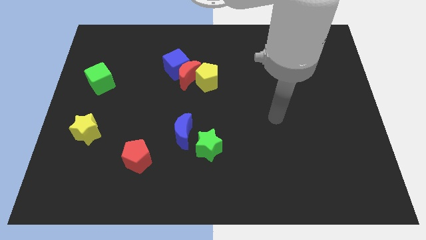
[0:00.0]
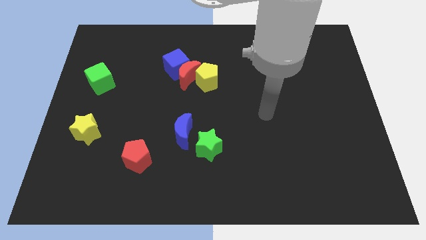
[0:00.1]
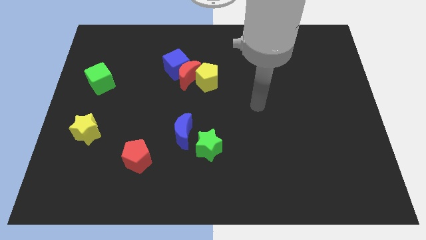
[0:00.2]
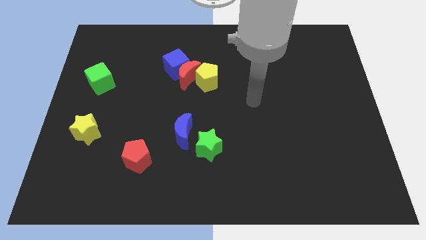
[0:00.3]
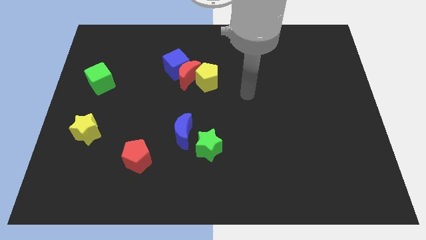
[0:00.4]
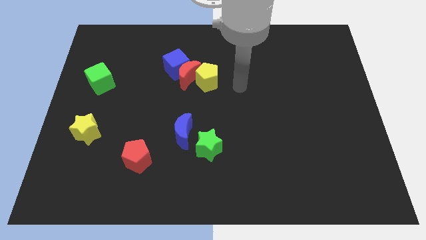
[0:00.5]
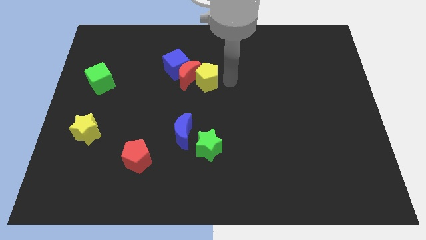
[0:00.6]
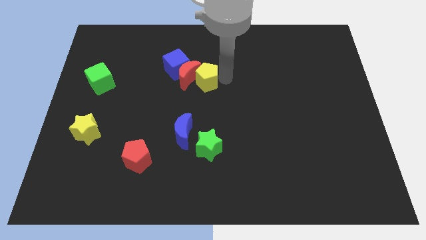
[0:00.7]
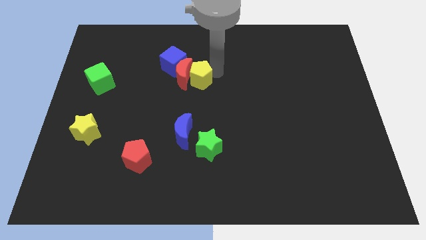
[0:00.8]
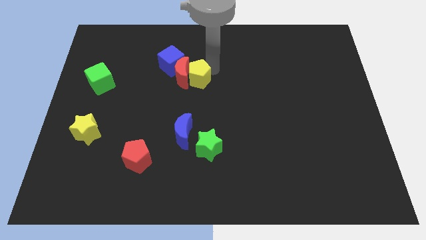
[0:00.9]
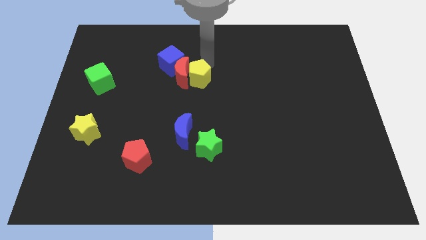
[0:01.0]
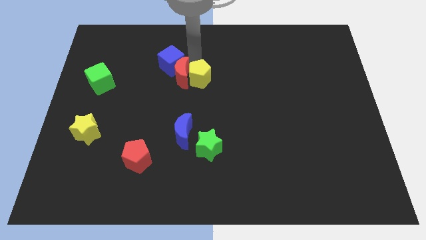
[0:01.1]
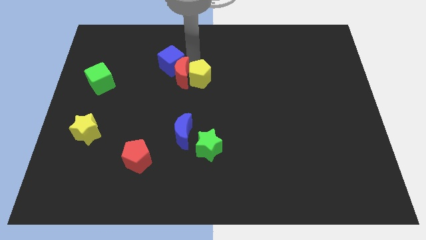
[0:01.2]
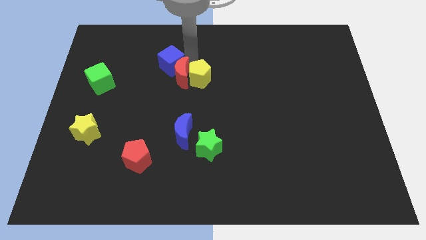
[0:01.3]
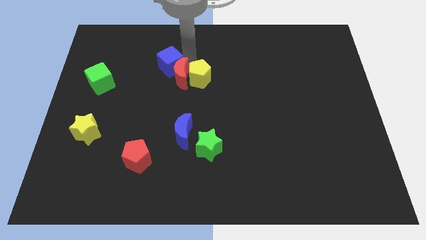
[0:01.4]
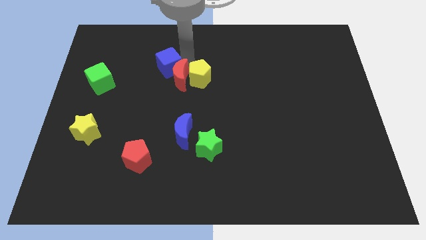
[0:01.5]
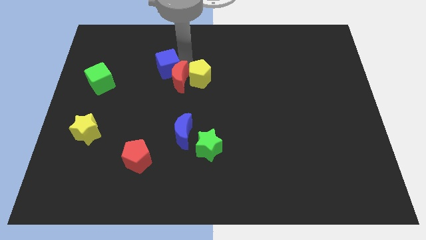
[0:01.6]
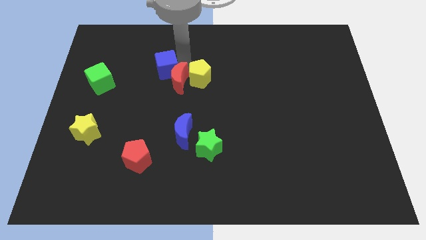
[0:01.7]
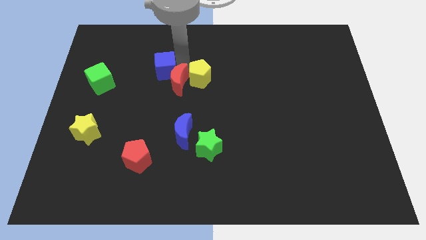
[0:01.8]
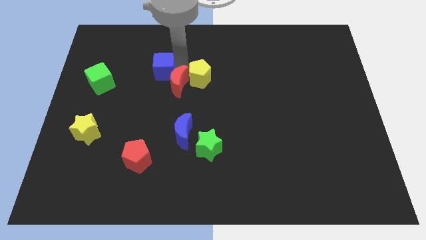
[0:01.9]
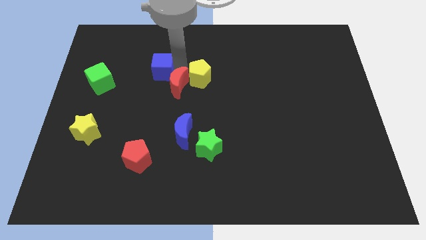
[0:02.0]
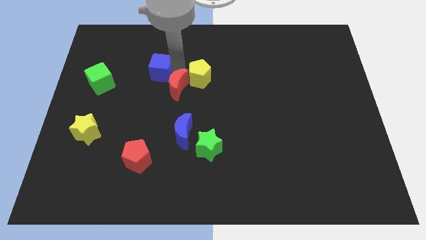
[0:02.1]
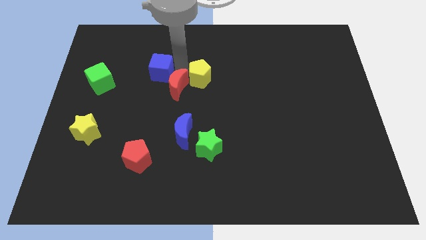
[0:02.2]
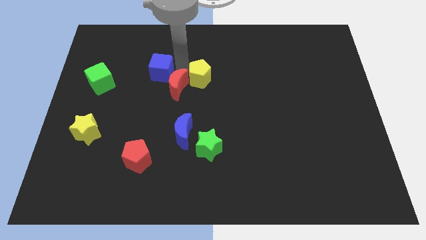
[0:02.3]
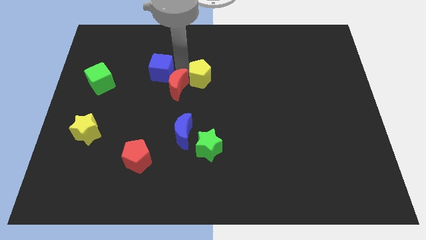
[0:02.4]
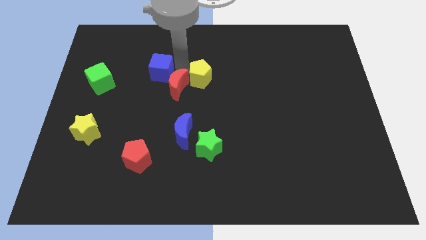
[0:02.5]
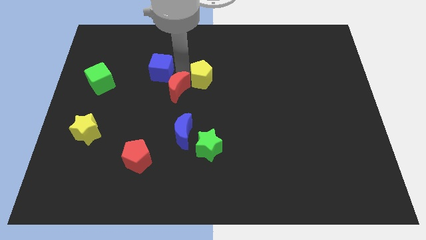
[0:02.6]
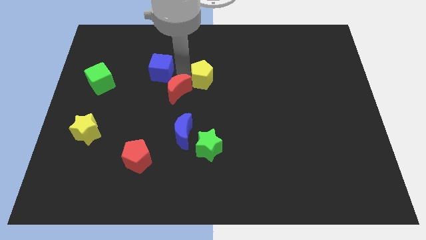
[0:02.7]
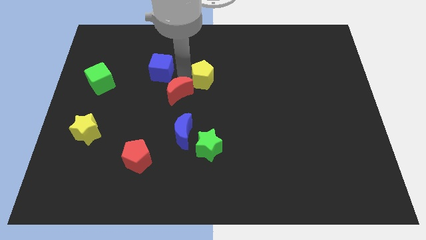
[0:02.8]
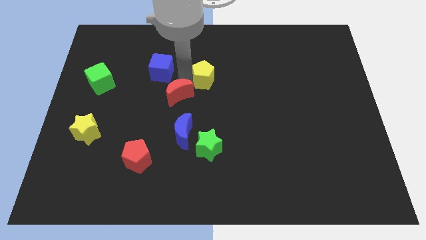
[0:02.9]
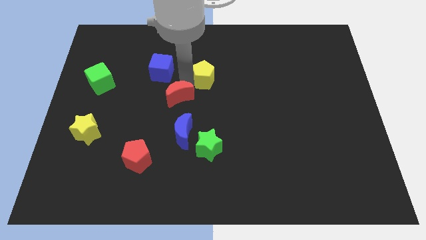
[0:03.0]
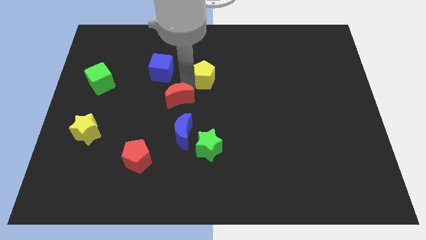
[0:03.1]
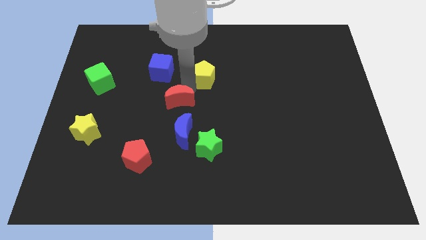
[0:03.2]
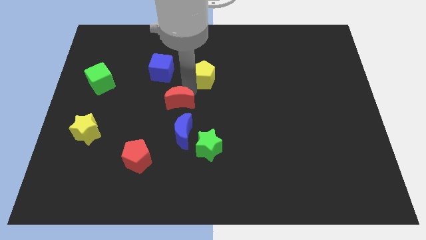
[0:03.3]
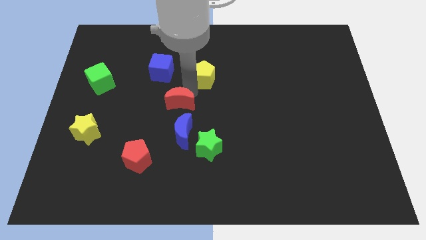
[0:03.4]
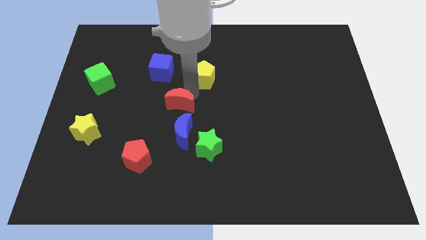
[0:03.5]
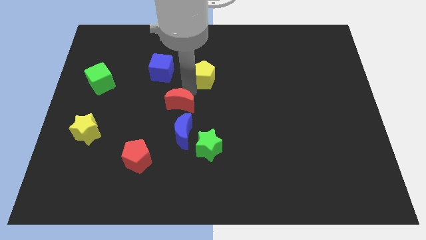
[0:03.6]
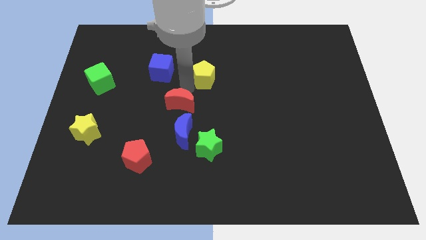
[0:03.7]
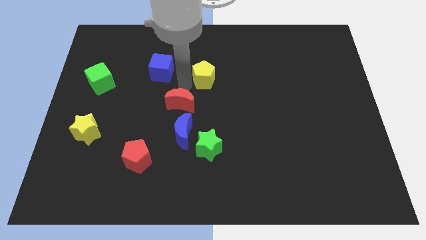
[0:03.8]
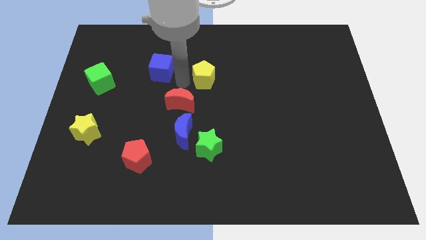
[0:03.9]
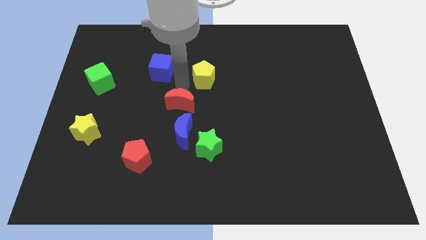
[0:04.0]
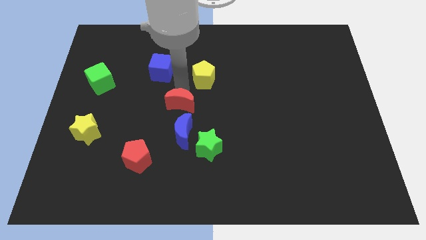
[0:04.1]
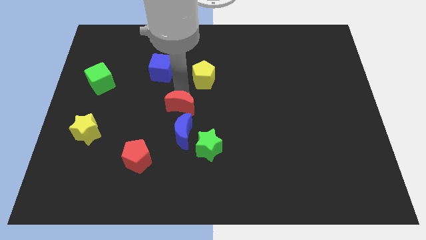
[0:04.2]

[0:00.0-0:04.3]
separate the red moon from the blue cube and yellow pentagon

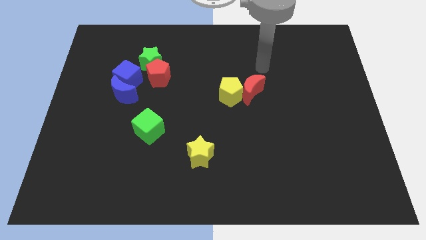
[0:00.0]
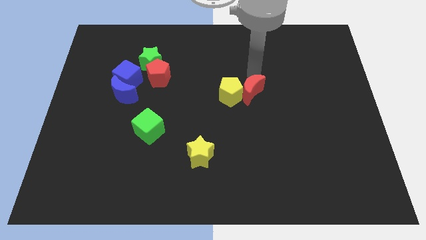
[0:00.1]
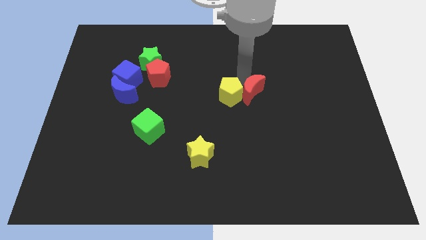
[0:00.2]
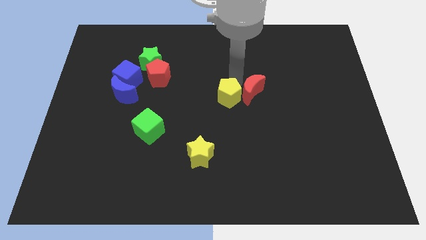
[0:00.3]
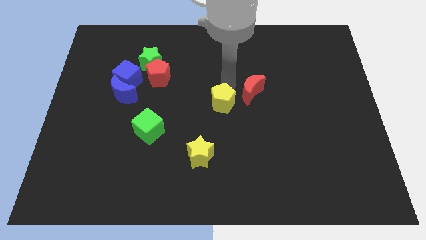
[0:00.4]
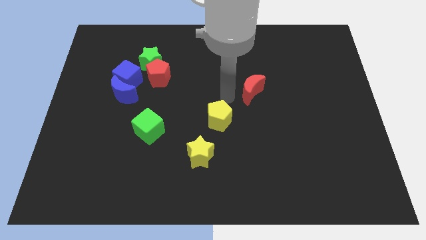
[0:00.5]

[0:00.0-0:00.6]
pull the red moon apart from the yellow pentagon

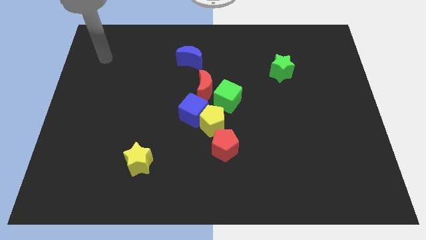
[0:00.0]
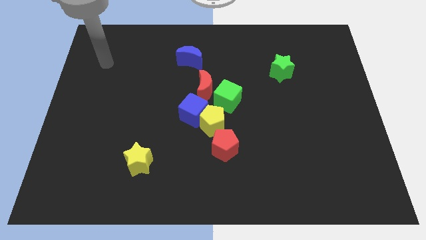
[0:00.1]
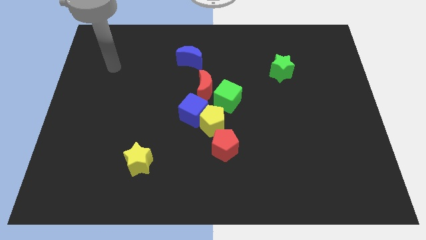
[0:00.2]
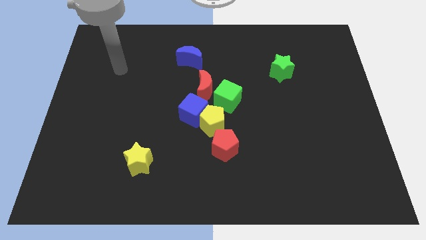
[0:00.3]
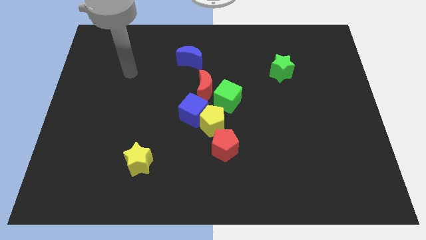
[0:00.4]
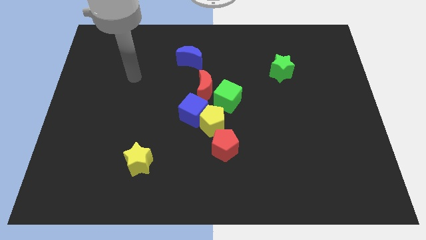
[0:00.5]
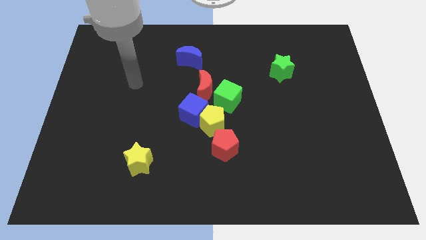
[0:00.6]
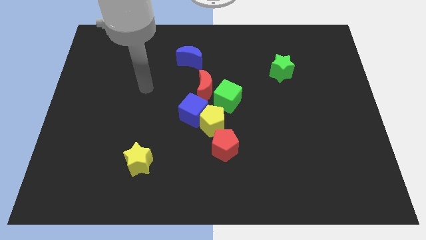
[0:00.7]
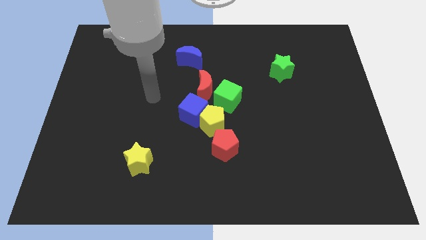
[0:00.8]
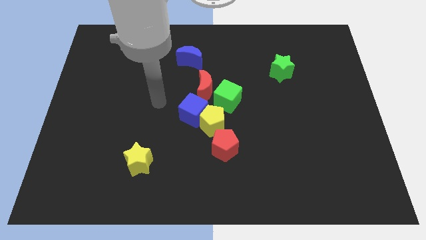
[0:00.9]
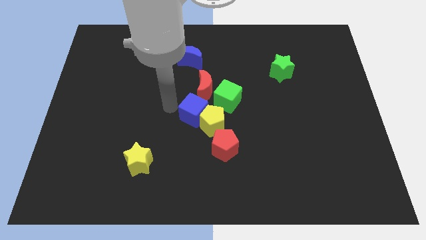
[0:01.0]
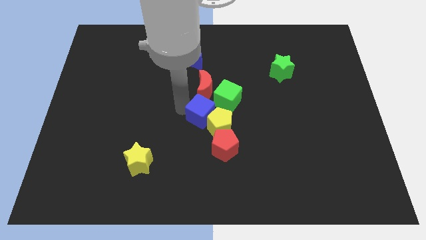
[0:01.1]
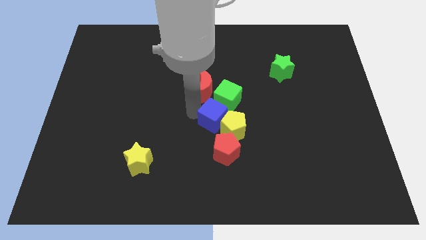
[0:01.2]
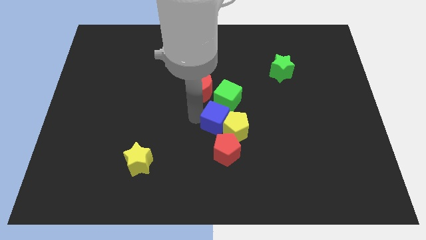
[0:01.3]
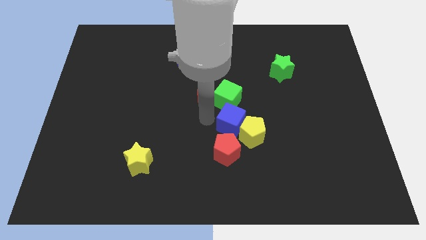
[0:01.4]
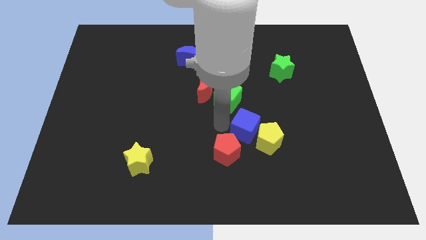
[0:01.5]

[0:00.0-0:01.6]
pull the red pentagon apart from the yellow pentagon

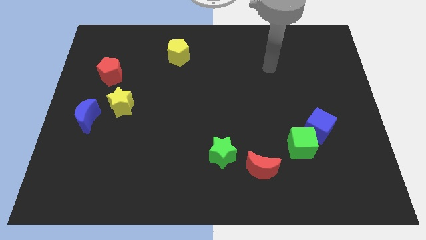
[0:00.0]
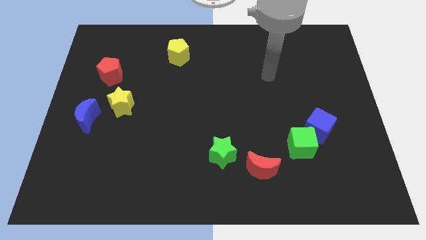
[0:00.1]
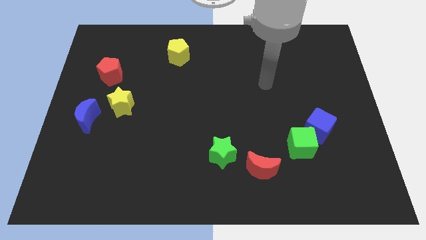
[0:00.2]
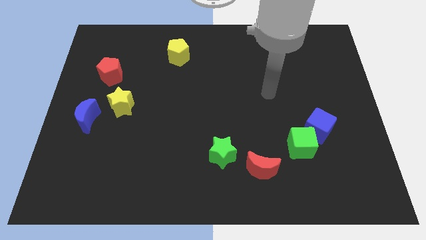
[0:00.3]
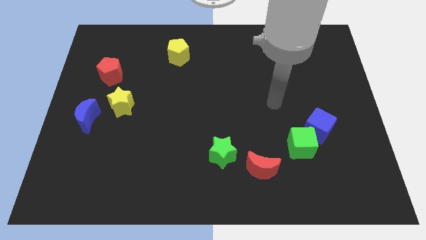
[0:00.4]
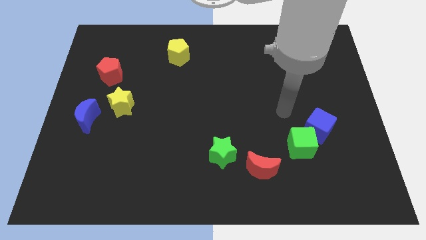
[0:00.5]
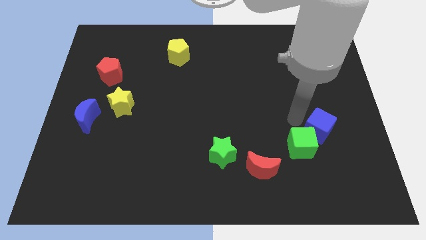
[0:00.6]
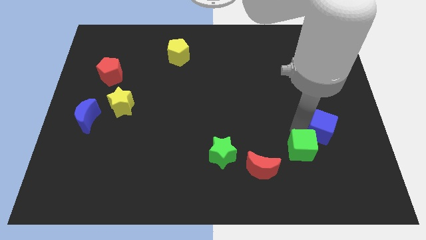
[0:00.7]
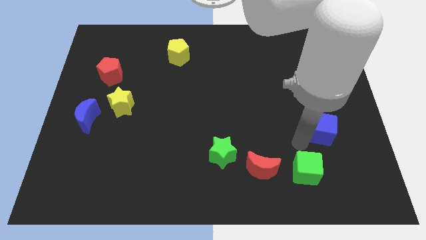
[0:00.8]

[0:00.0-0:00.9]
separate the blue cube from the green cube

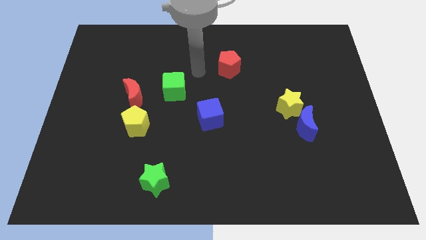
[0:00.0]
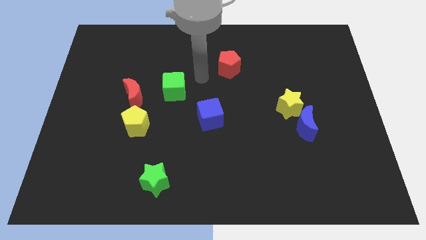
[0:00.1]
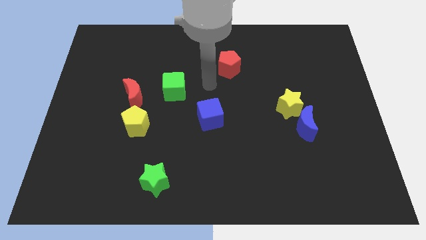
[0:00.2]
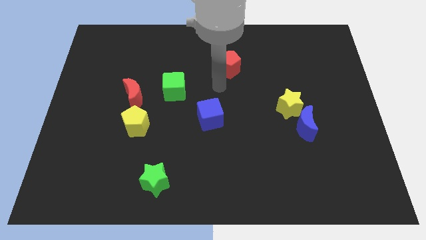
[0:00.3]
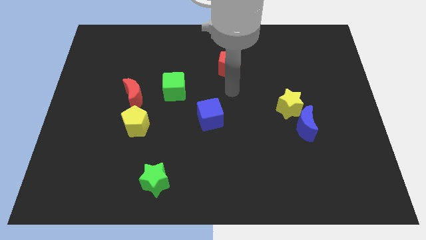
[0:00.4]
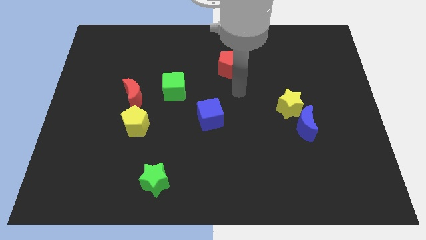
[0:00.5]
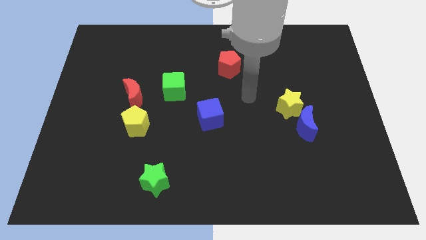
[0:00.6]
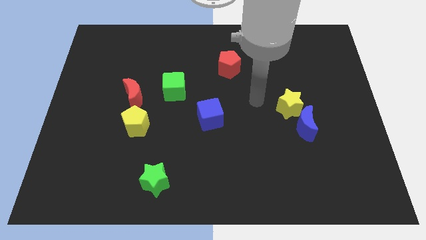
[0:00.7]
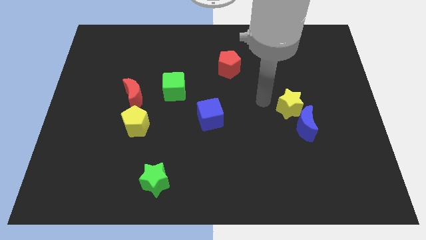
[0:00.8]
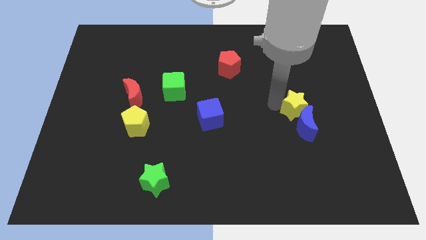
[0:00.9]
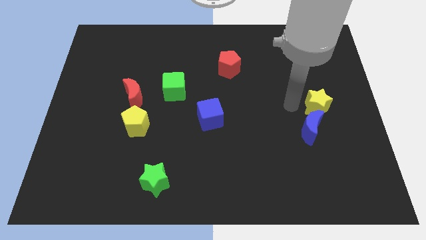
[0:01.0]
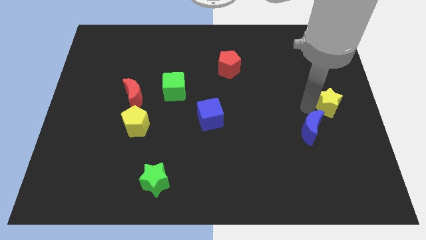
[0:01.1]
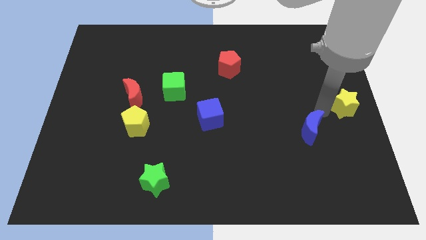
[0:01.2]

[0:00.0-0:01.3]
move the blue moon away from the yellow star

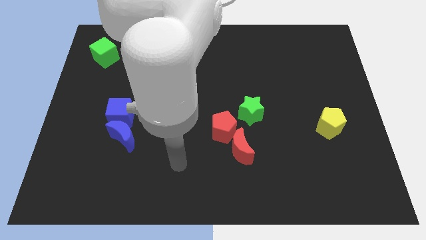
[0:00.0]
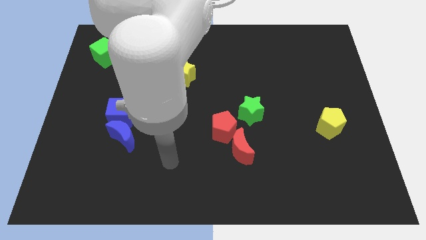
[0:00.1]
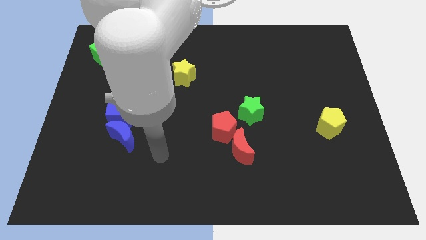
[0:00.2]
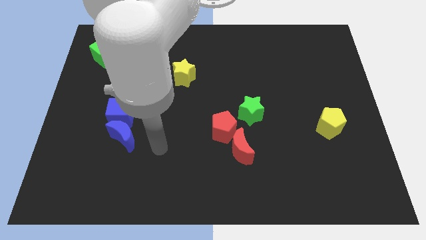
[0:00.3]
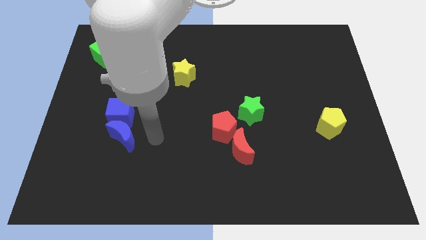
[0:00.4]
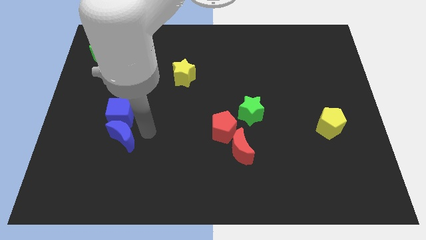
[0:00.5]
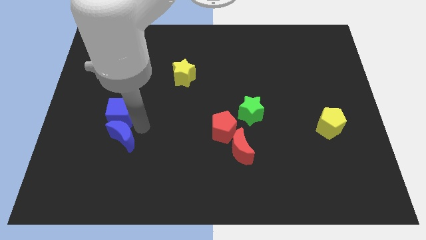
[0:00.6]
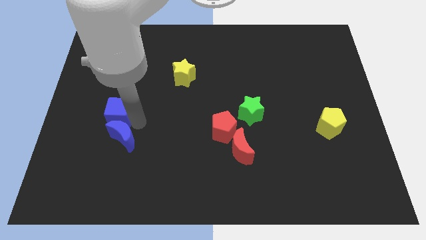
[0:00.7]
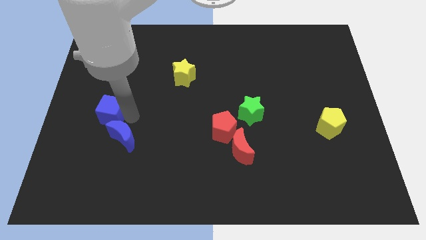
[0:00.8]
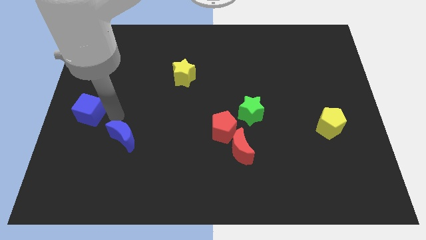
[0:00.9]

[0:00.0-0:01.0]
move the blue moon away from the blue cube
